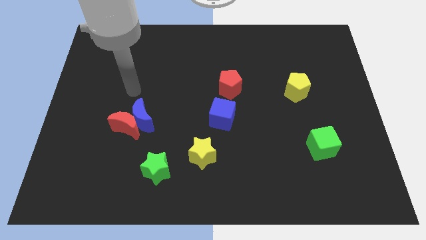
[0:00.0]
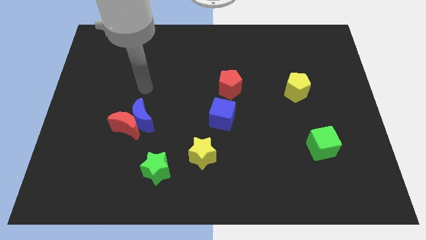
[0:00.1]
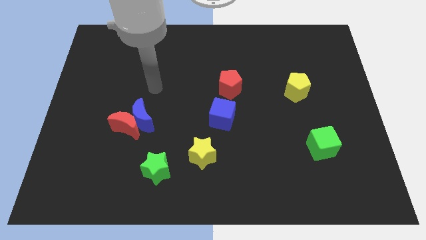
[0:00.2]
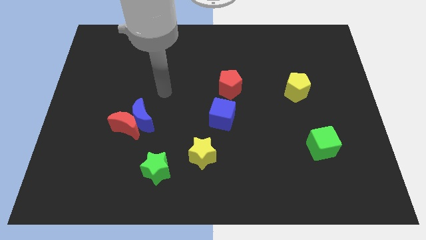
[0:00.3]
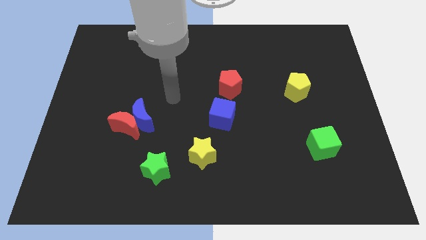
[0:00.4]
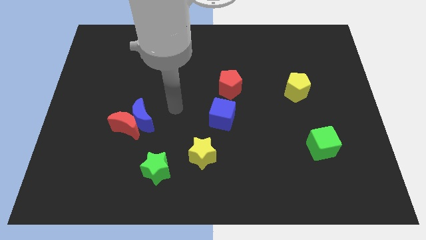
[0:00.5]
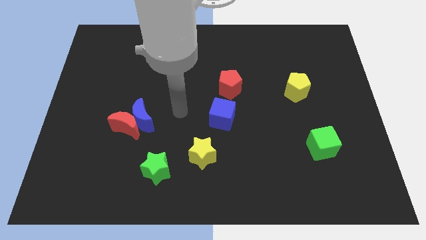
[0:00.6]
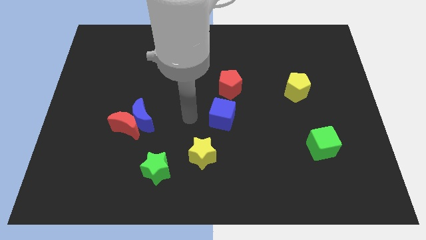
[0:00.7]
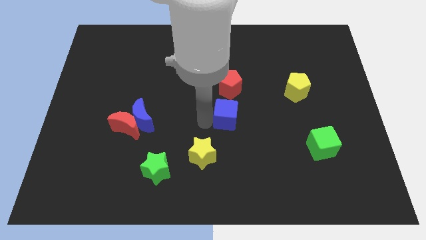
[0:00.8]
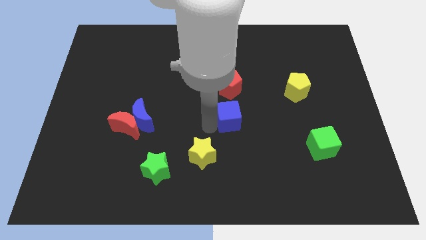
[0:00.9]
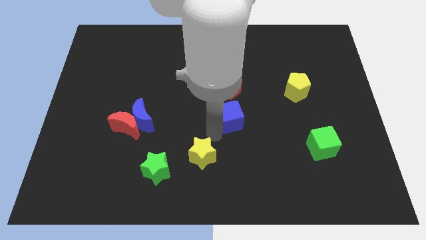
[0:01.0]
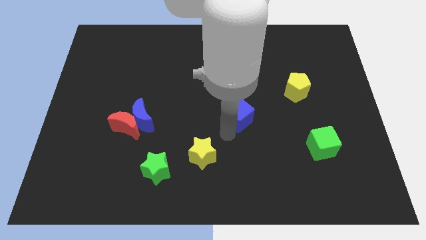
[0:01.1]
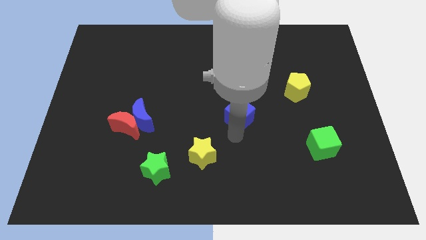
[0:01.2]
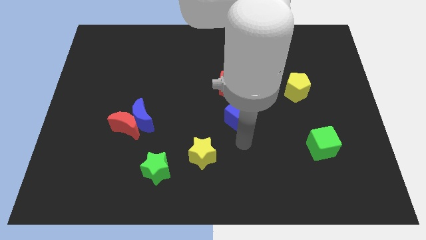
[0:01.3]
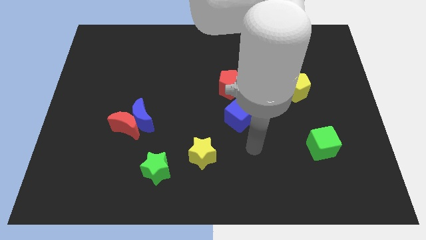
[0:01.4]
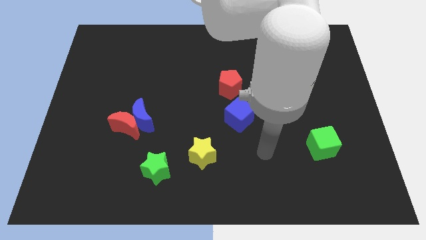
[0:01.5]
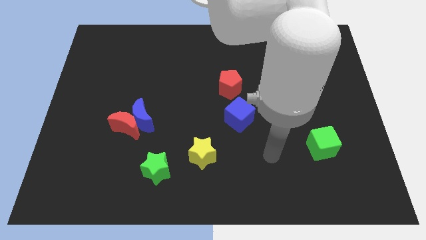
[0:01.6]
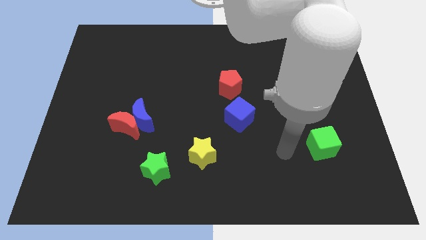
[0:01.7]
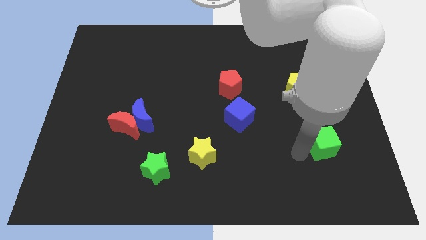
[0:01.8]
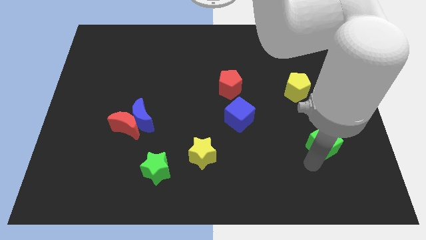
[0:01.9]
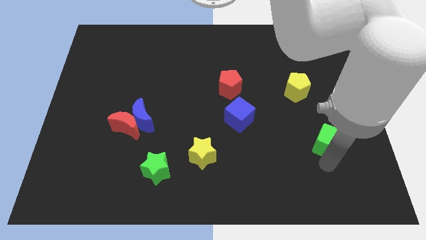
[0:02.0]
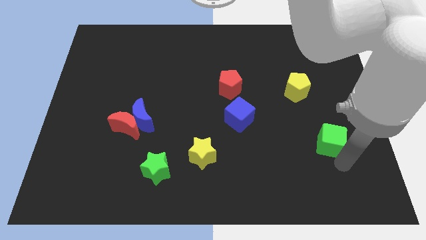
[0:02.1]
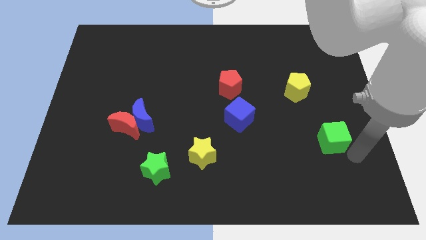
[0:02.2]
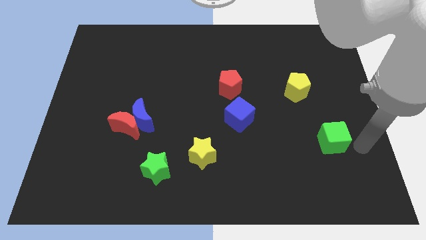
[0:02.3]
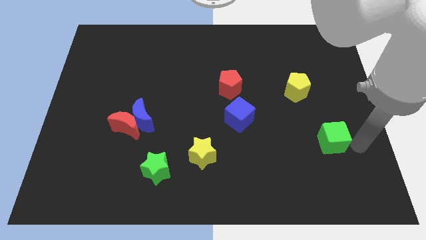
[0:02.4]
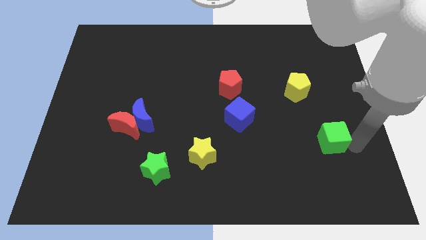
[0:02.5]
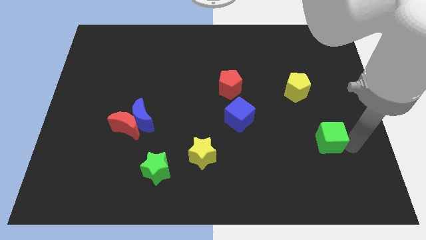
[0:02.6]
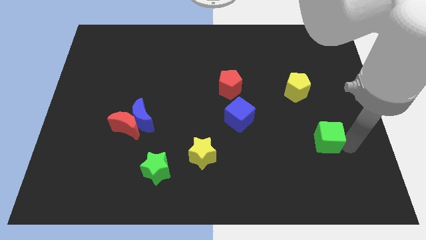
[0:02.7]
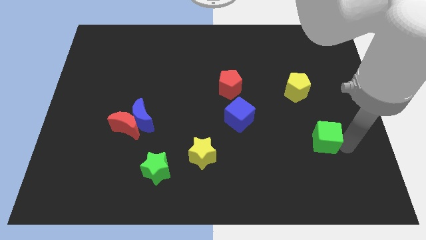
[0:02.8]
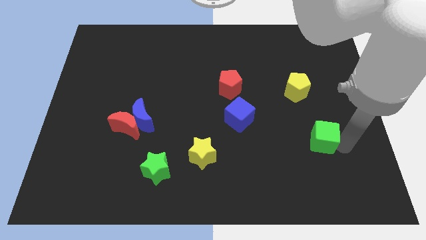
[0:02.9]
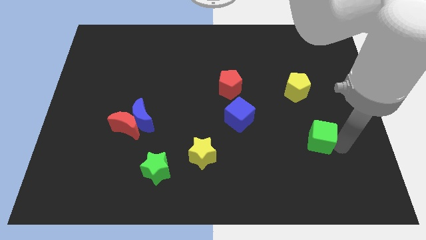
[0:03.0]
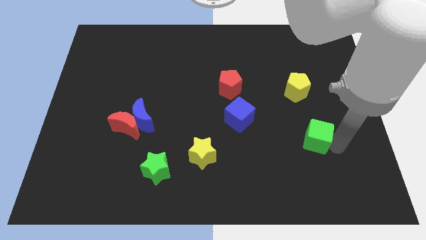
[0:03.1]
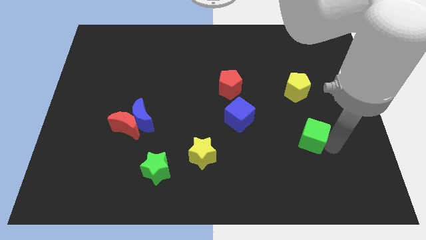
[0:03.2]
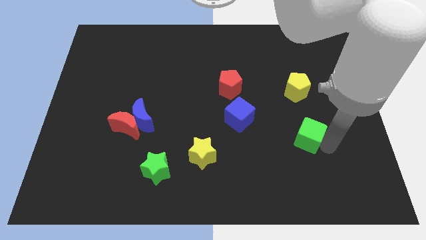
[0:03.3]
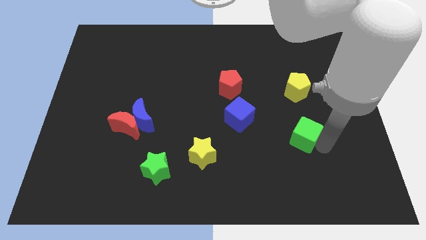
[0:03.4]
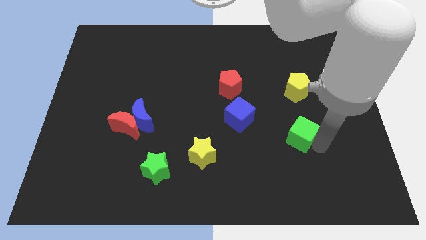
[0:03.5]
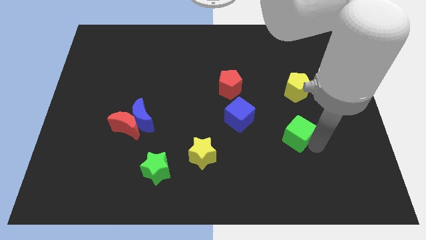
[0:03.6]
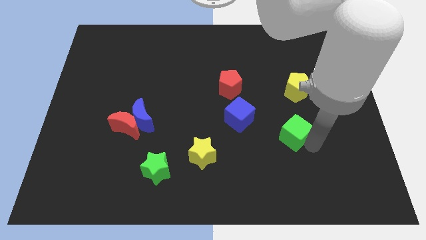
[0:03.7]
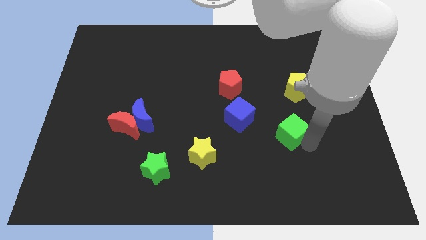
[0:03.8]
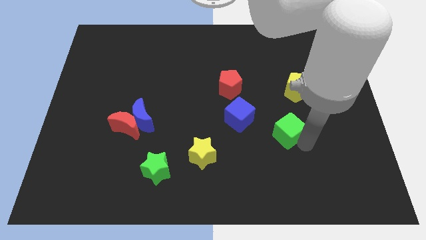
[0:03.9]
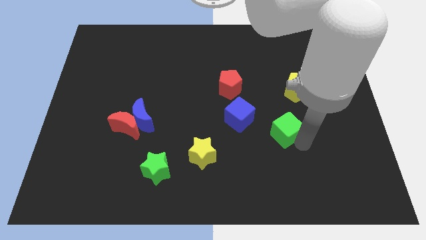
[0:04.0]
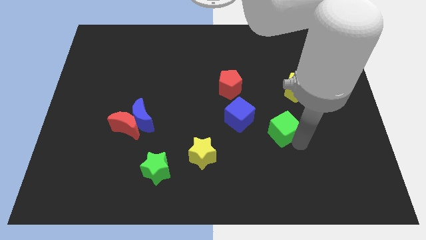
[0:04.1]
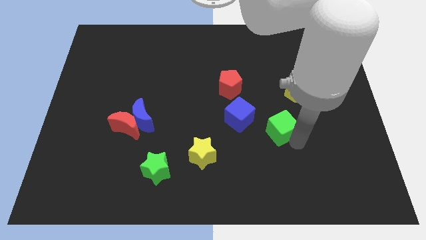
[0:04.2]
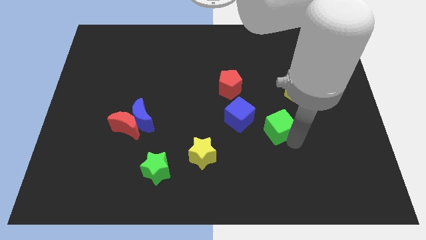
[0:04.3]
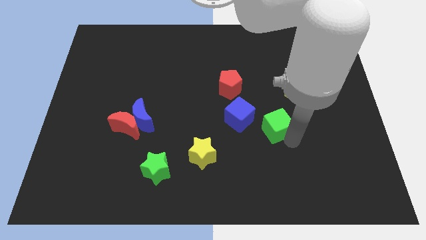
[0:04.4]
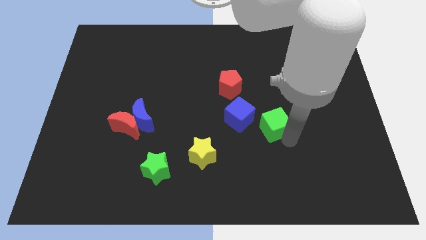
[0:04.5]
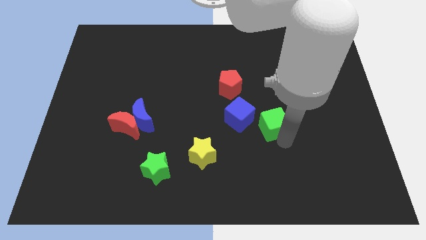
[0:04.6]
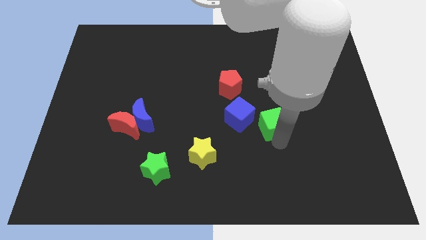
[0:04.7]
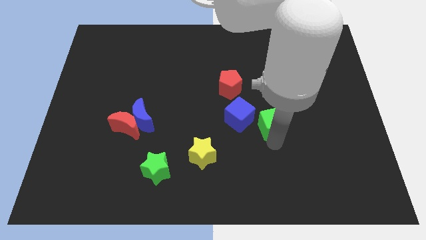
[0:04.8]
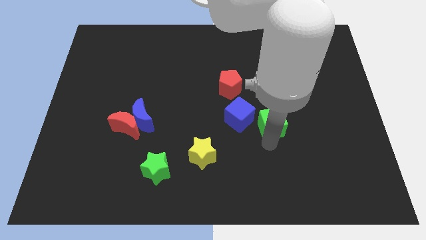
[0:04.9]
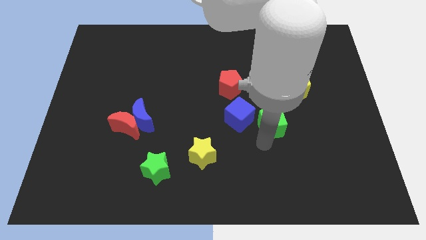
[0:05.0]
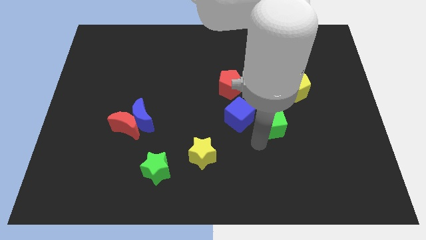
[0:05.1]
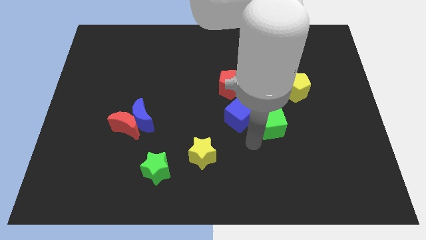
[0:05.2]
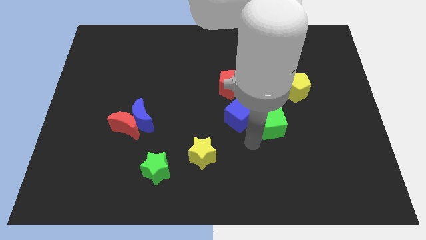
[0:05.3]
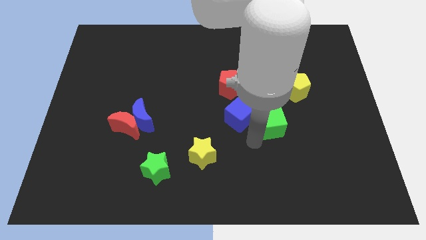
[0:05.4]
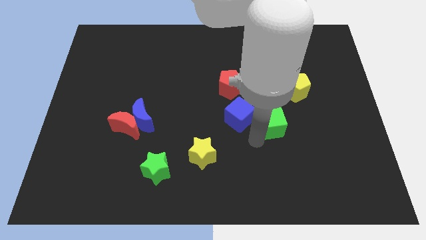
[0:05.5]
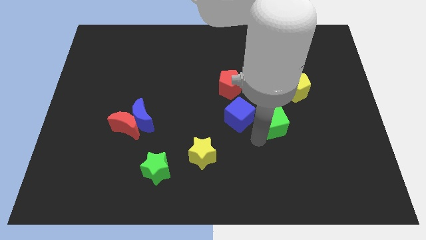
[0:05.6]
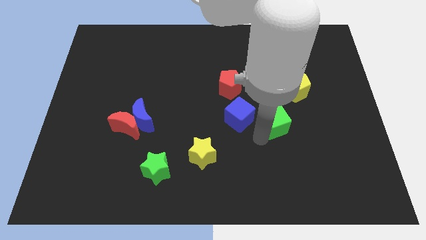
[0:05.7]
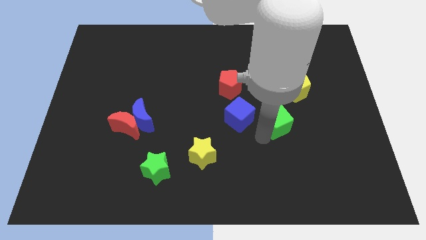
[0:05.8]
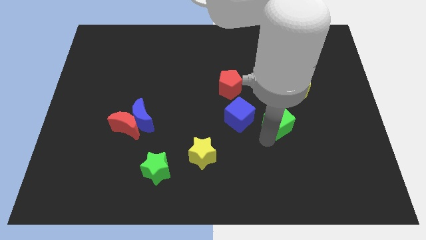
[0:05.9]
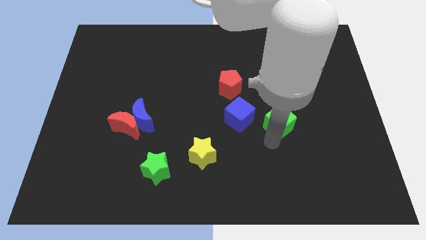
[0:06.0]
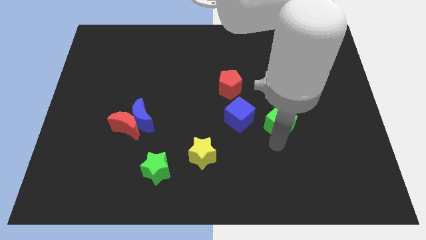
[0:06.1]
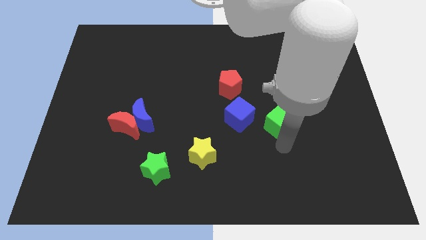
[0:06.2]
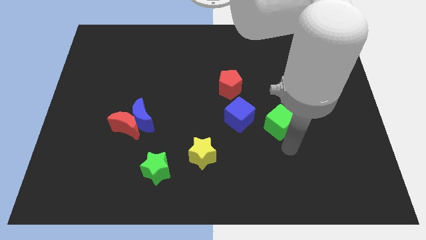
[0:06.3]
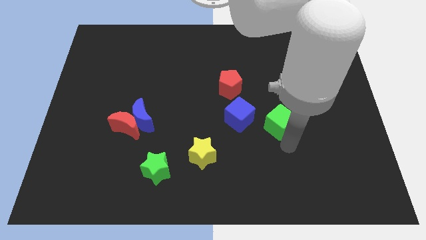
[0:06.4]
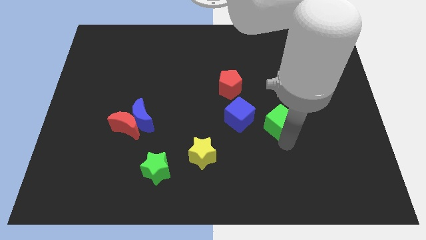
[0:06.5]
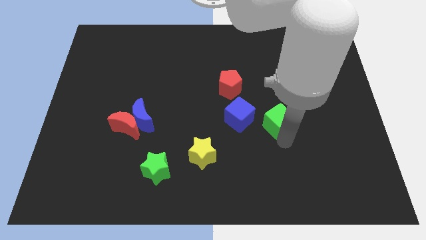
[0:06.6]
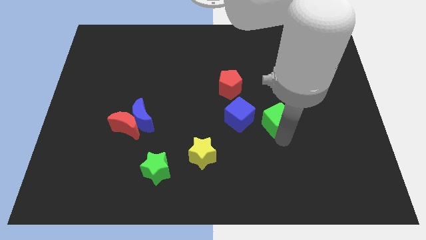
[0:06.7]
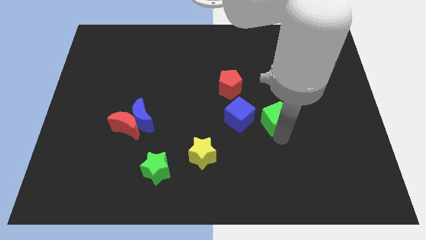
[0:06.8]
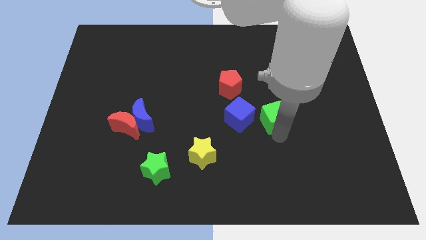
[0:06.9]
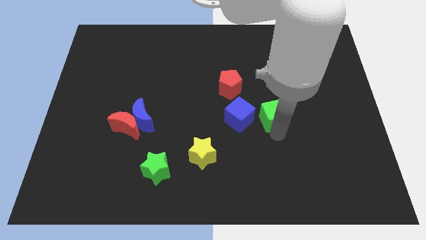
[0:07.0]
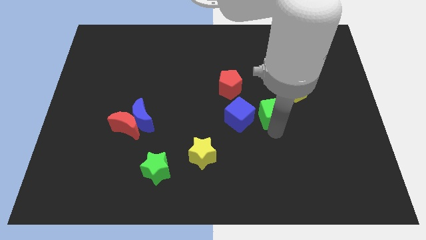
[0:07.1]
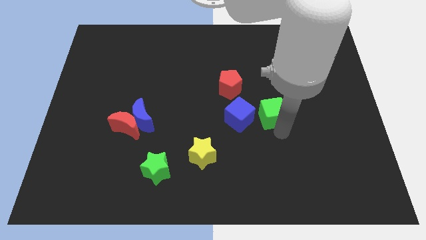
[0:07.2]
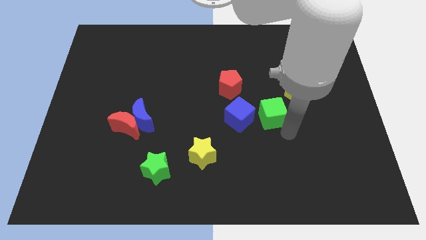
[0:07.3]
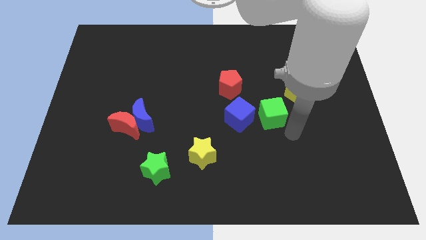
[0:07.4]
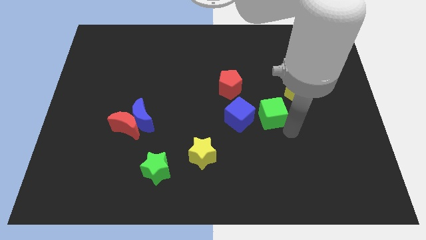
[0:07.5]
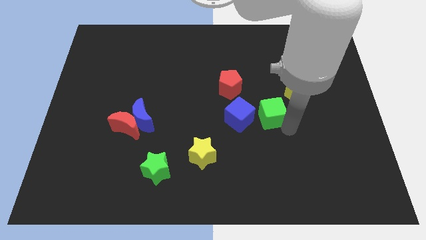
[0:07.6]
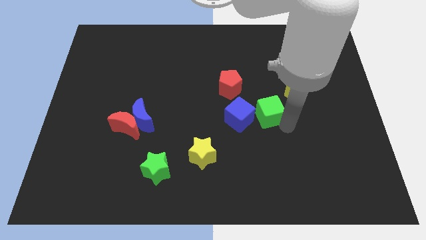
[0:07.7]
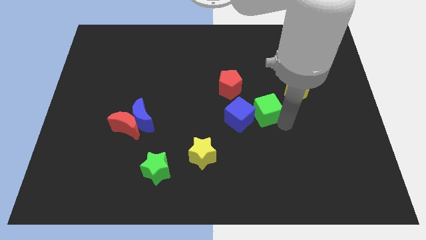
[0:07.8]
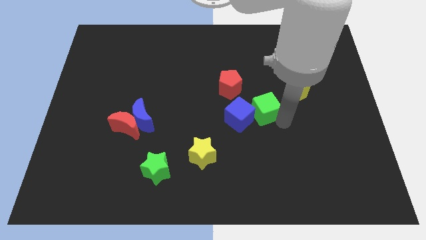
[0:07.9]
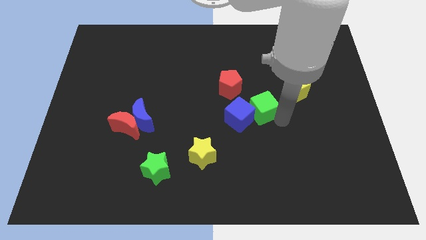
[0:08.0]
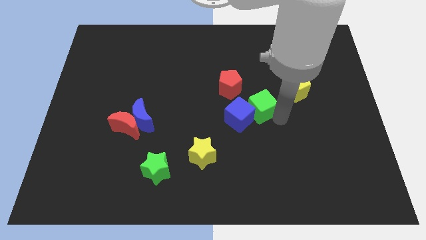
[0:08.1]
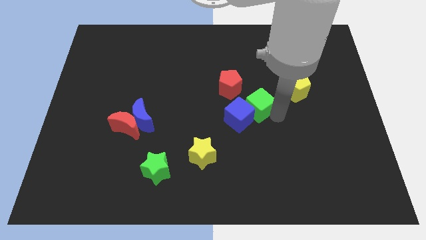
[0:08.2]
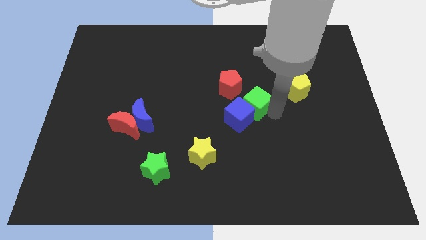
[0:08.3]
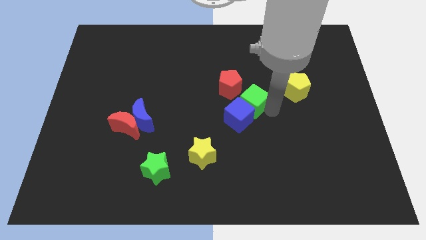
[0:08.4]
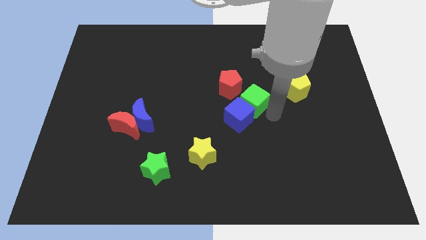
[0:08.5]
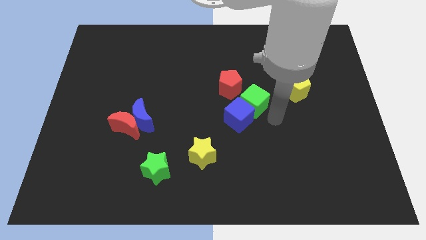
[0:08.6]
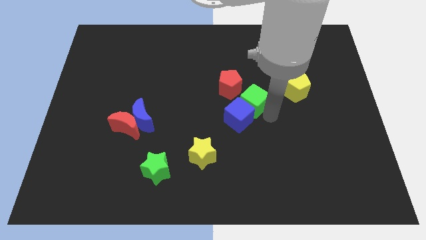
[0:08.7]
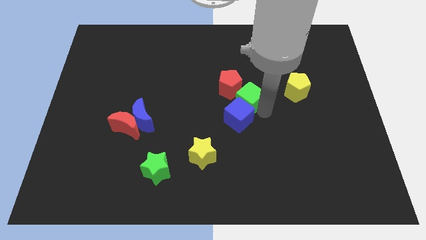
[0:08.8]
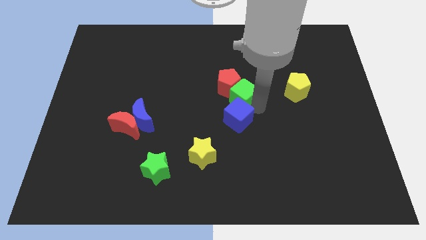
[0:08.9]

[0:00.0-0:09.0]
slide the green cube next to the red pentagon
